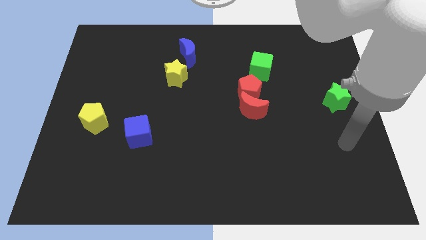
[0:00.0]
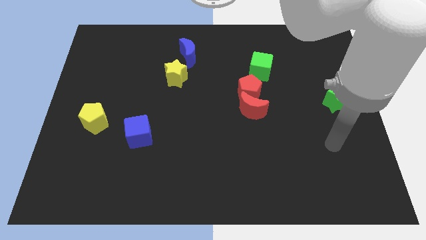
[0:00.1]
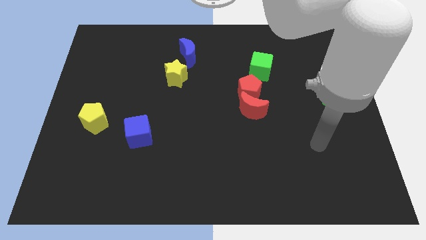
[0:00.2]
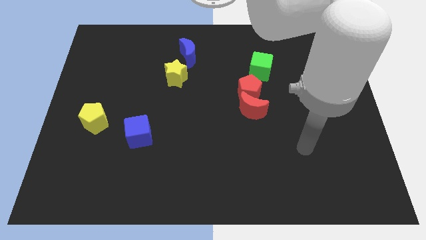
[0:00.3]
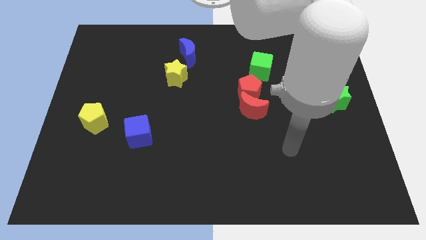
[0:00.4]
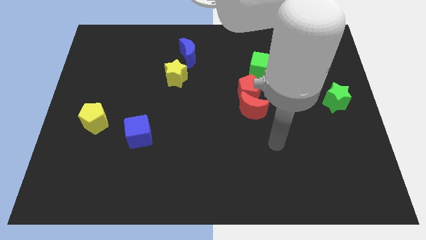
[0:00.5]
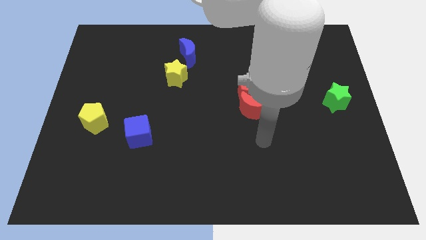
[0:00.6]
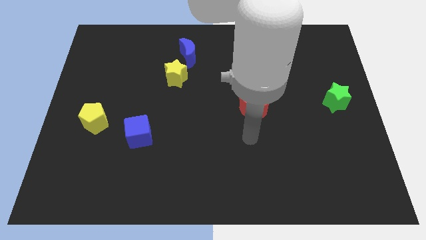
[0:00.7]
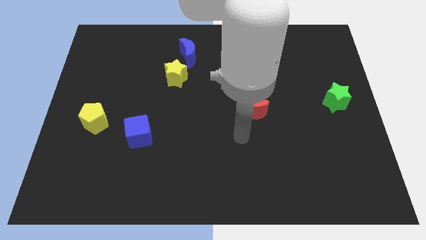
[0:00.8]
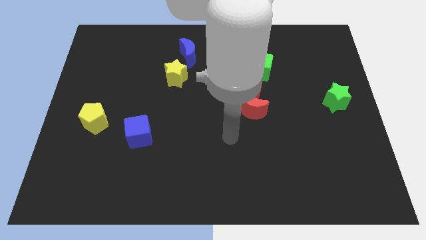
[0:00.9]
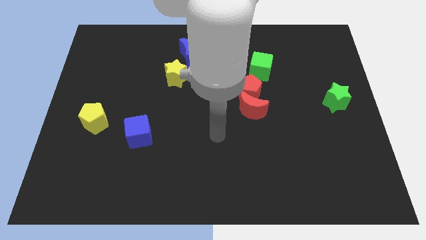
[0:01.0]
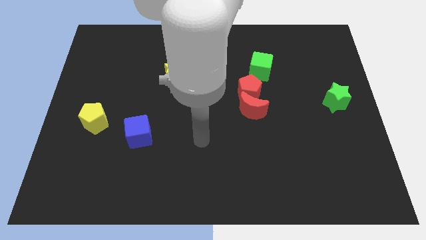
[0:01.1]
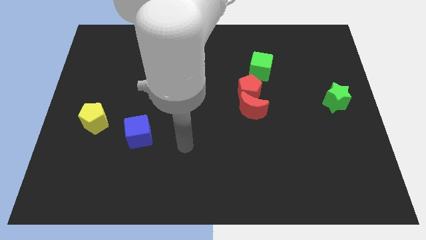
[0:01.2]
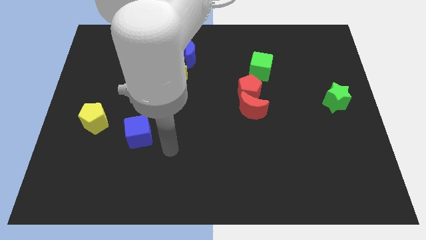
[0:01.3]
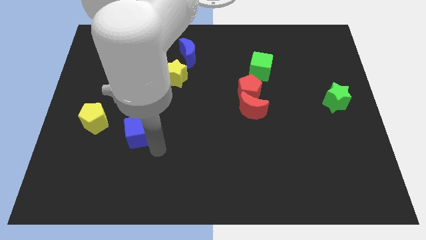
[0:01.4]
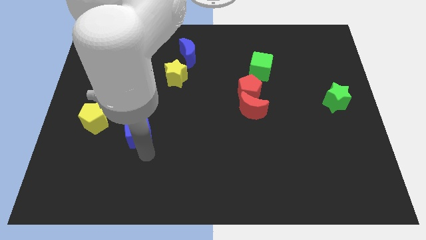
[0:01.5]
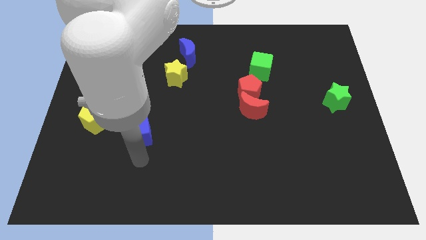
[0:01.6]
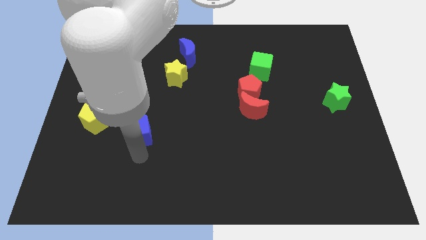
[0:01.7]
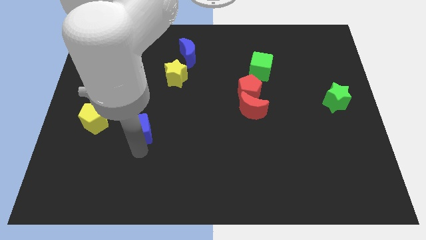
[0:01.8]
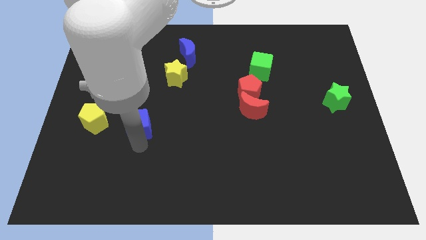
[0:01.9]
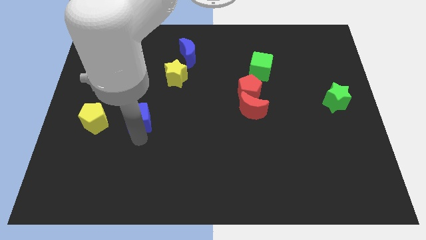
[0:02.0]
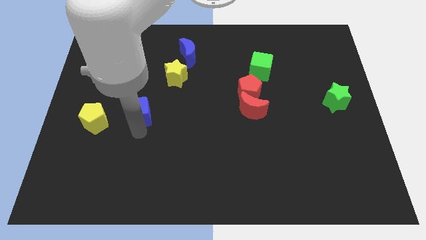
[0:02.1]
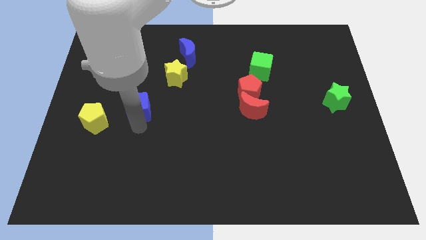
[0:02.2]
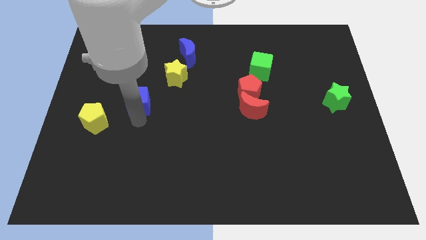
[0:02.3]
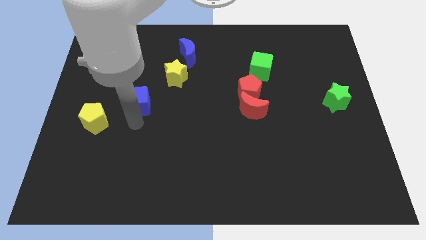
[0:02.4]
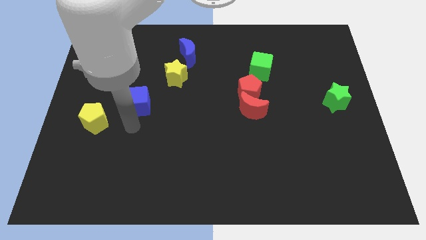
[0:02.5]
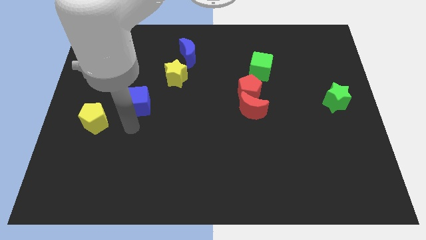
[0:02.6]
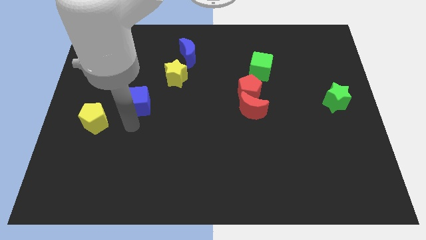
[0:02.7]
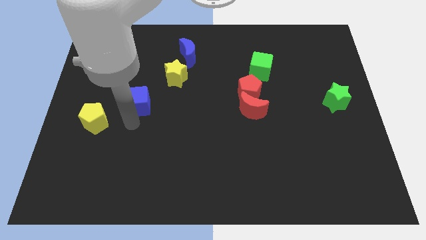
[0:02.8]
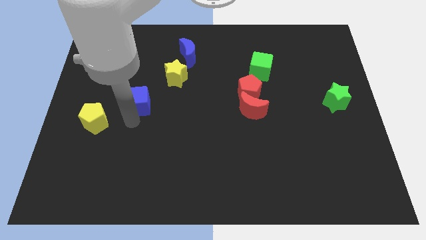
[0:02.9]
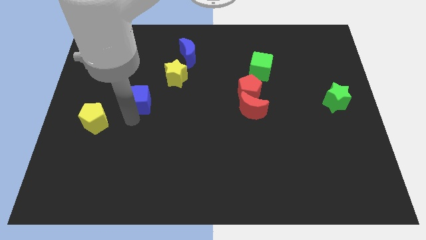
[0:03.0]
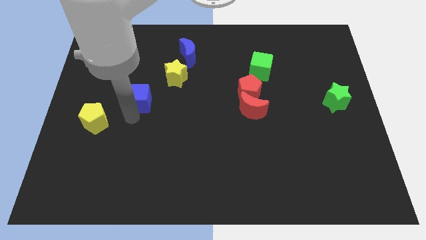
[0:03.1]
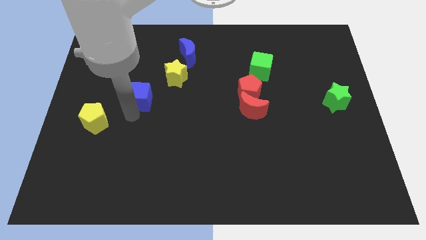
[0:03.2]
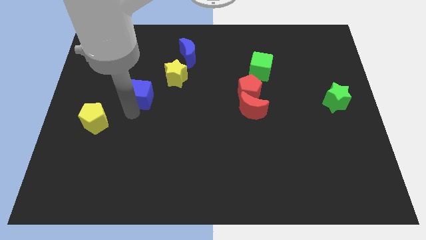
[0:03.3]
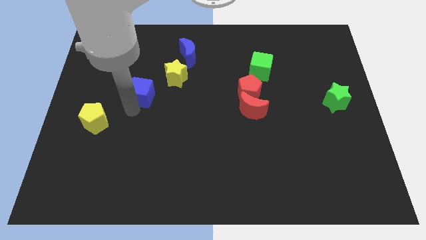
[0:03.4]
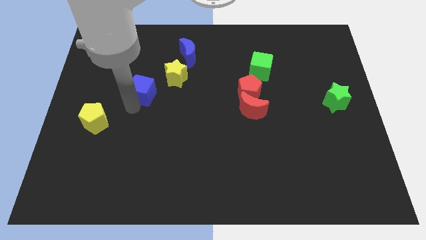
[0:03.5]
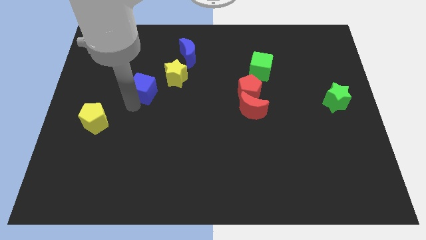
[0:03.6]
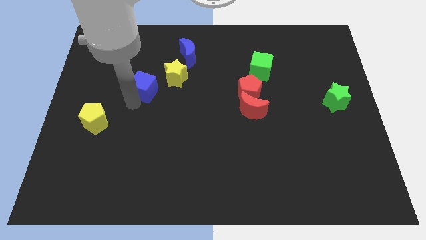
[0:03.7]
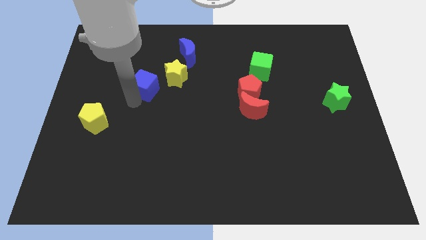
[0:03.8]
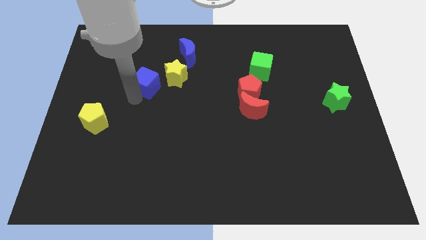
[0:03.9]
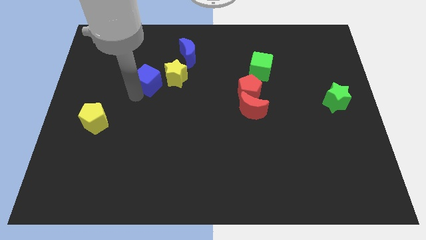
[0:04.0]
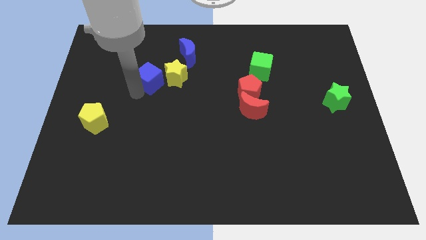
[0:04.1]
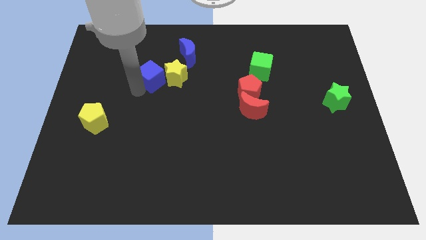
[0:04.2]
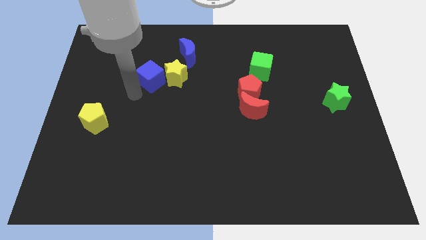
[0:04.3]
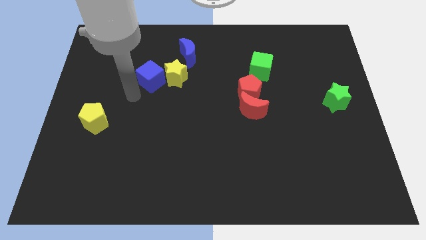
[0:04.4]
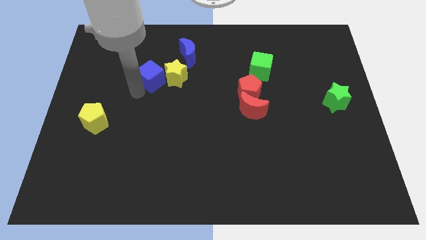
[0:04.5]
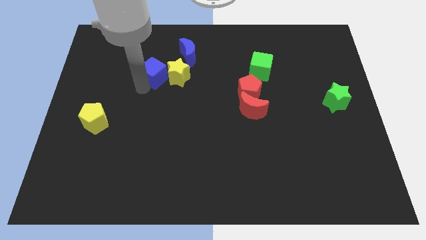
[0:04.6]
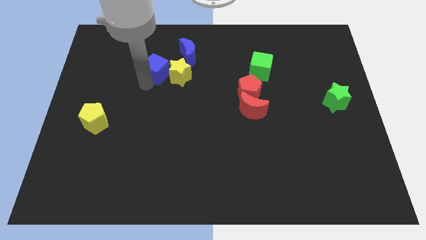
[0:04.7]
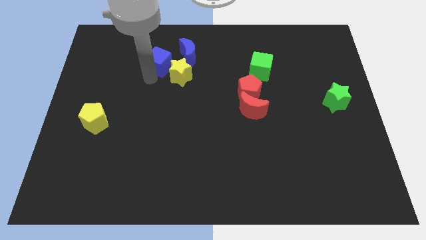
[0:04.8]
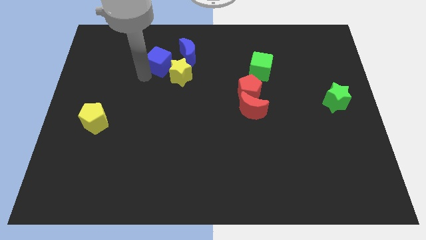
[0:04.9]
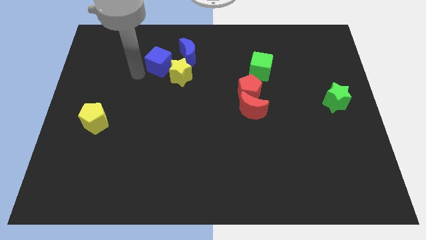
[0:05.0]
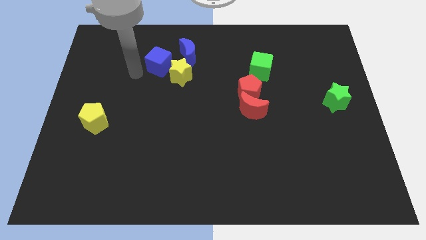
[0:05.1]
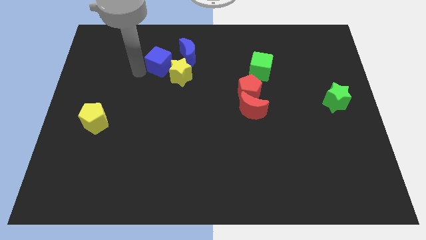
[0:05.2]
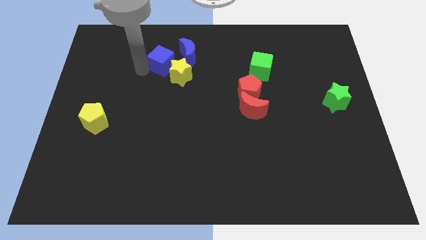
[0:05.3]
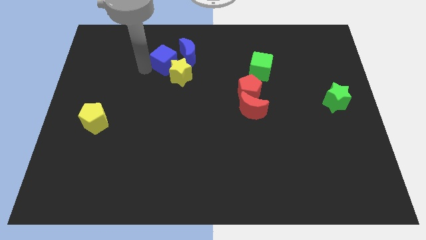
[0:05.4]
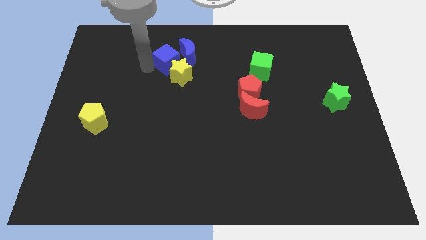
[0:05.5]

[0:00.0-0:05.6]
move the blue cube close to the blue moon

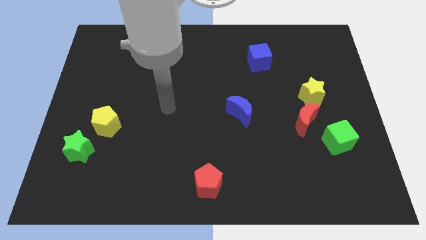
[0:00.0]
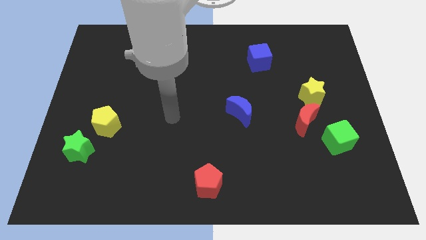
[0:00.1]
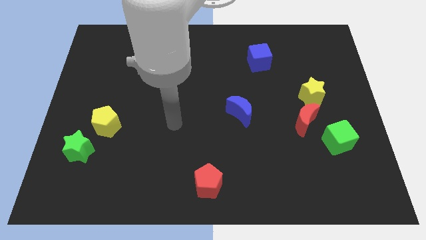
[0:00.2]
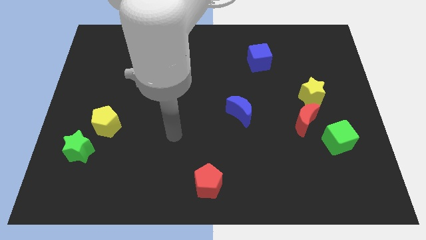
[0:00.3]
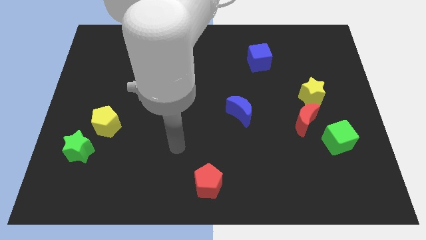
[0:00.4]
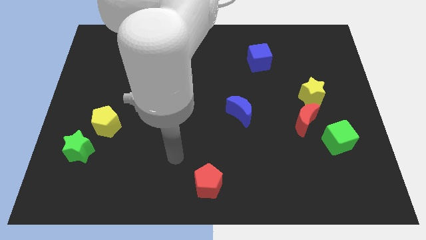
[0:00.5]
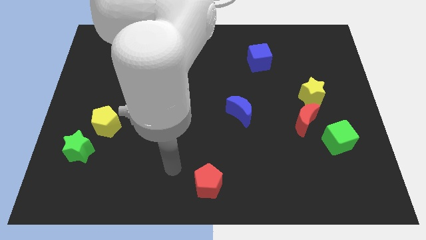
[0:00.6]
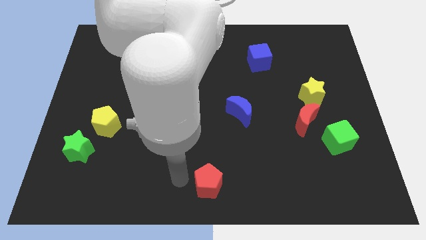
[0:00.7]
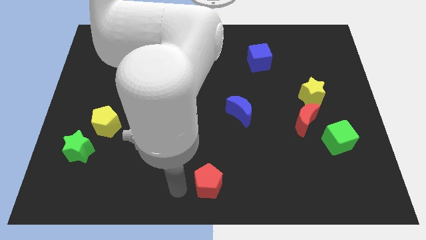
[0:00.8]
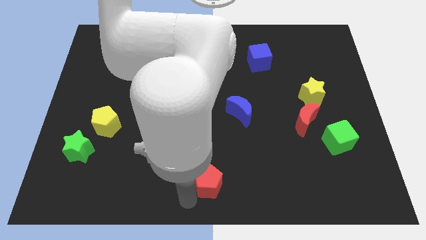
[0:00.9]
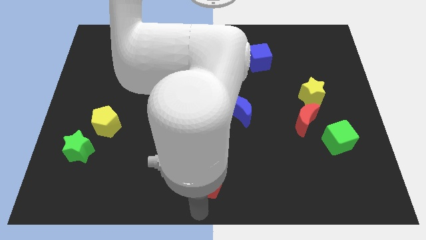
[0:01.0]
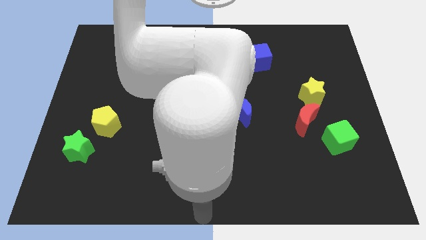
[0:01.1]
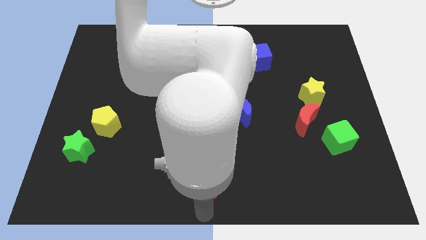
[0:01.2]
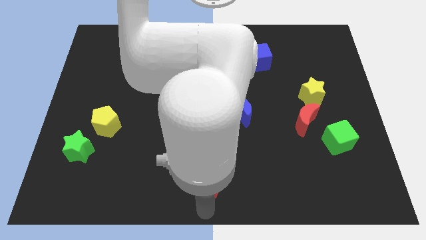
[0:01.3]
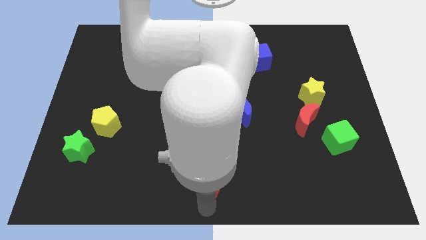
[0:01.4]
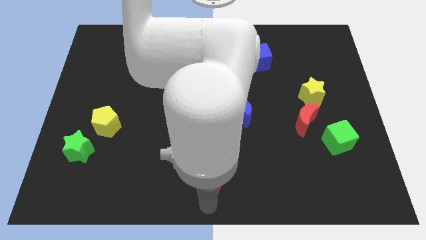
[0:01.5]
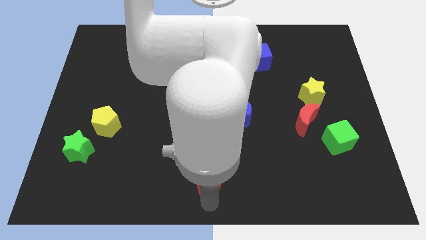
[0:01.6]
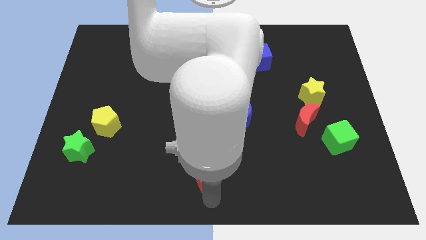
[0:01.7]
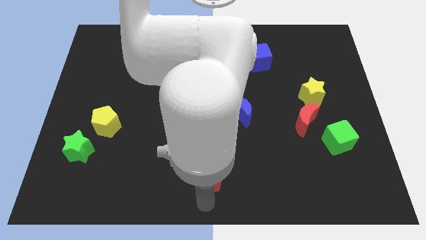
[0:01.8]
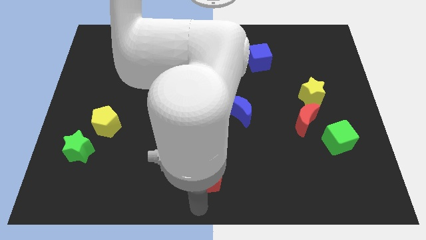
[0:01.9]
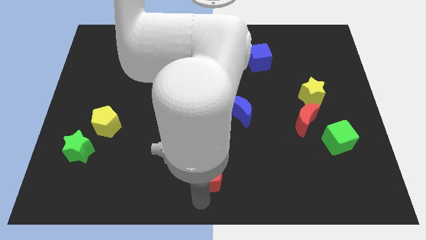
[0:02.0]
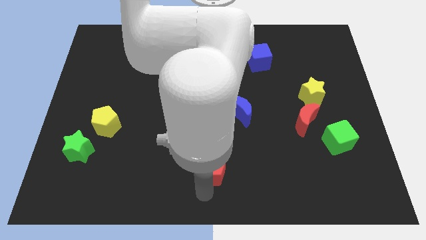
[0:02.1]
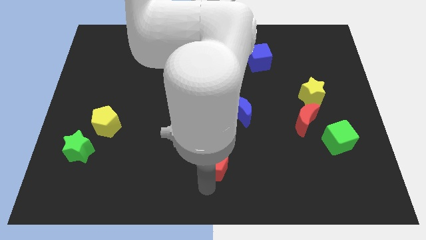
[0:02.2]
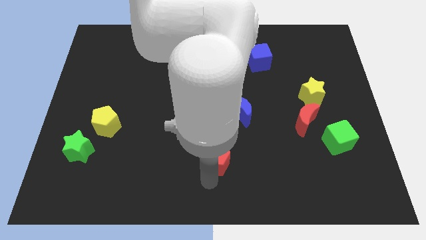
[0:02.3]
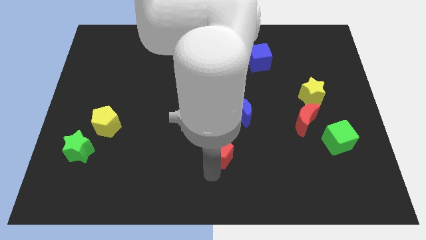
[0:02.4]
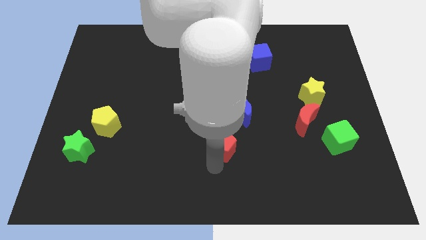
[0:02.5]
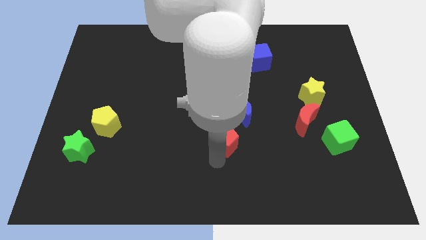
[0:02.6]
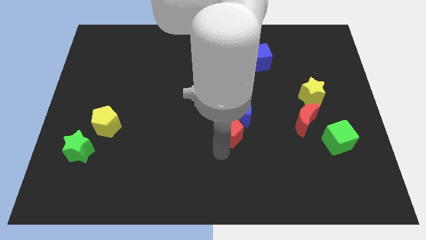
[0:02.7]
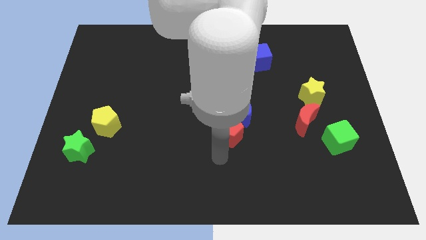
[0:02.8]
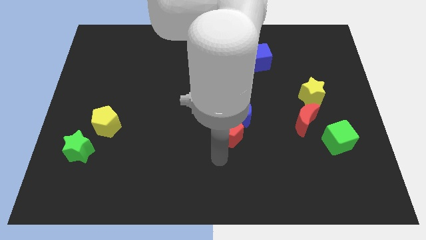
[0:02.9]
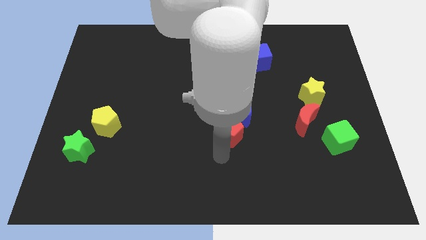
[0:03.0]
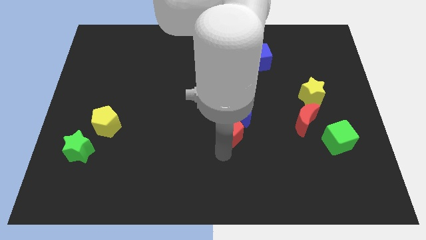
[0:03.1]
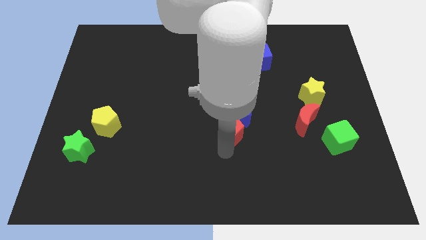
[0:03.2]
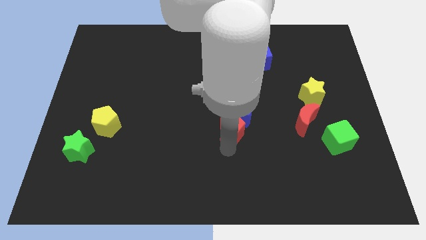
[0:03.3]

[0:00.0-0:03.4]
slide the red pentagon next to the blue moon
